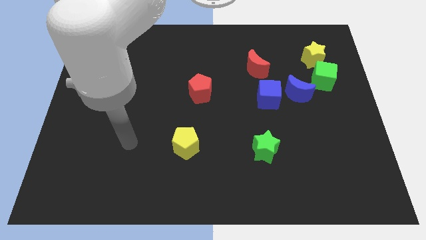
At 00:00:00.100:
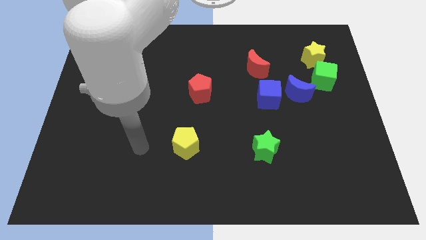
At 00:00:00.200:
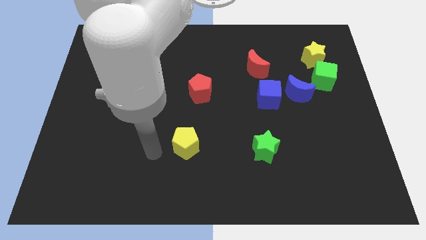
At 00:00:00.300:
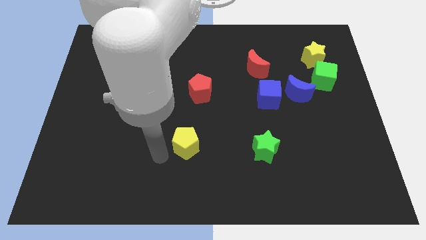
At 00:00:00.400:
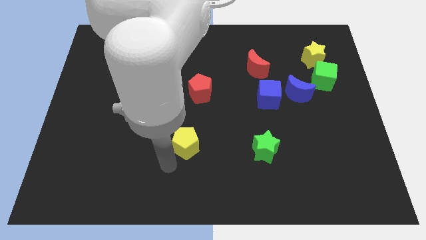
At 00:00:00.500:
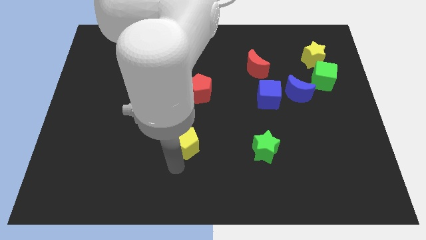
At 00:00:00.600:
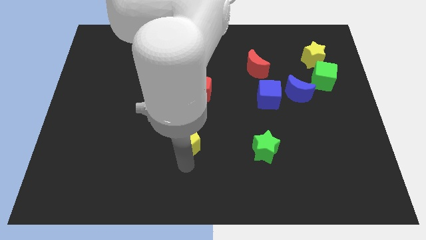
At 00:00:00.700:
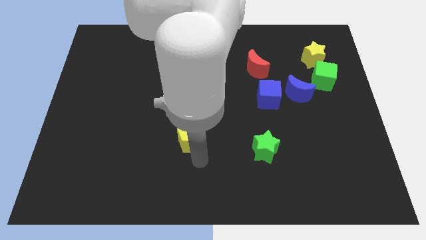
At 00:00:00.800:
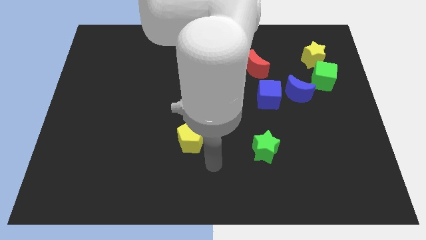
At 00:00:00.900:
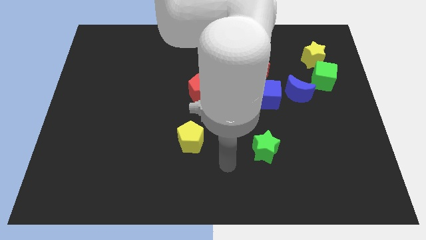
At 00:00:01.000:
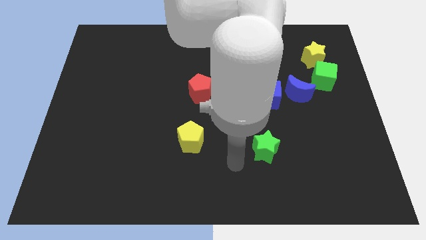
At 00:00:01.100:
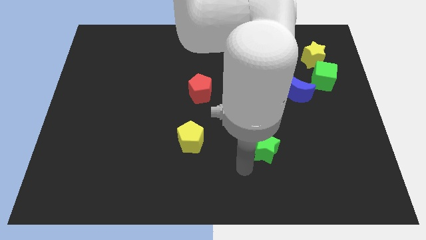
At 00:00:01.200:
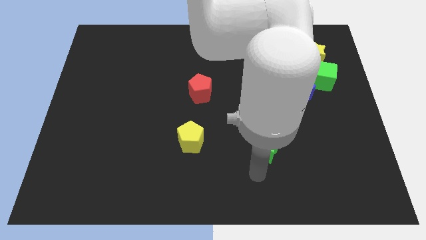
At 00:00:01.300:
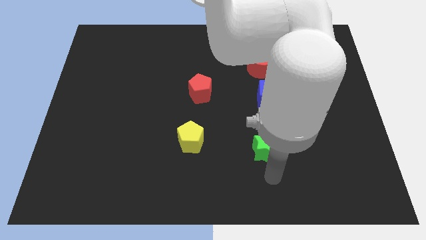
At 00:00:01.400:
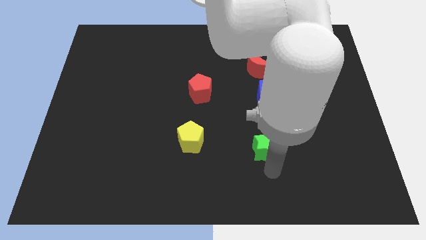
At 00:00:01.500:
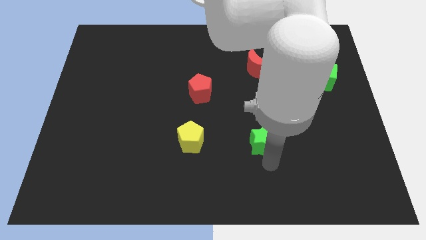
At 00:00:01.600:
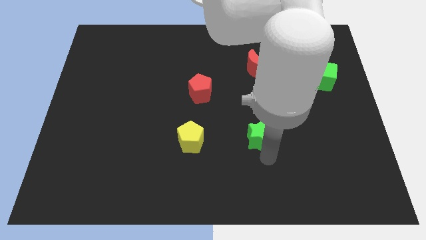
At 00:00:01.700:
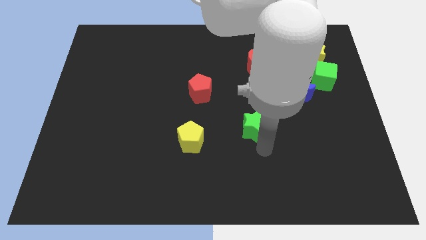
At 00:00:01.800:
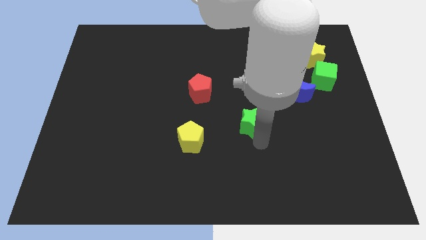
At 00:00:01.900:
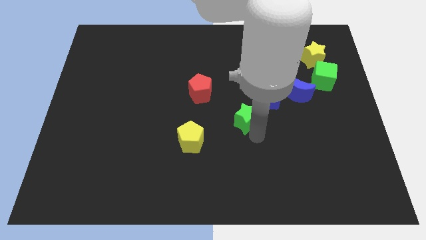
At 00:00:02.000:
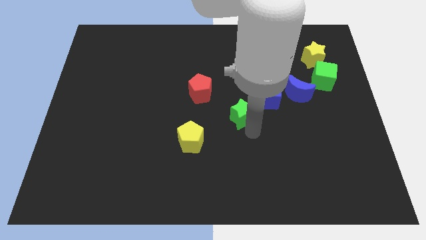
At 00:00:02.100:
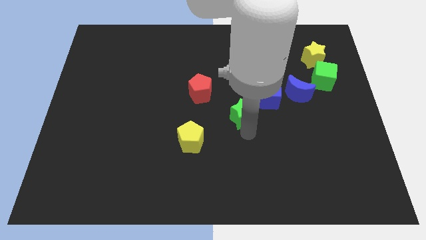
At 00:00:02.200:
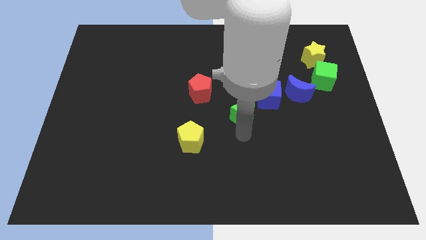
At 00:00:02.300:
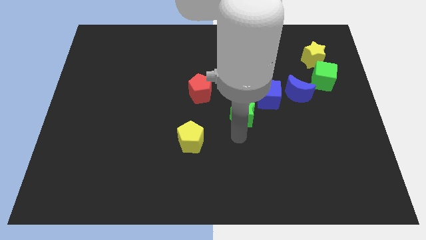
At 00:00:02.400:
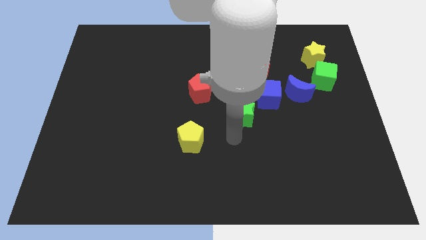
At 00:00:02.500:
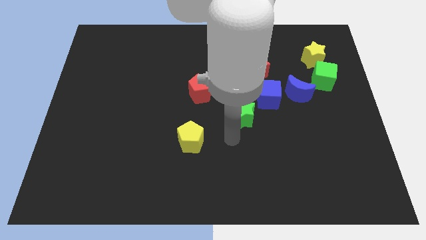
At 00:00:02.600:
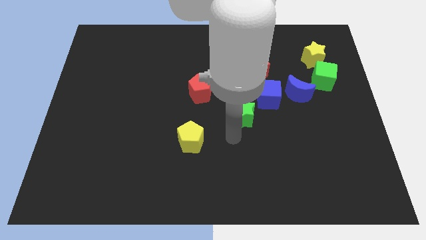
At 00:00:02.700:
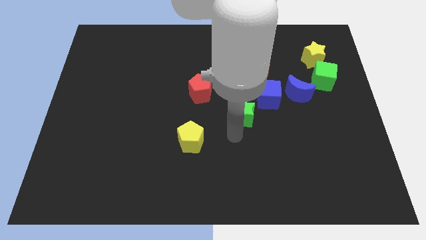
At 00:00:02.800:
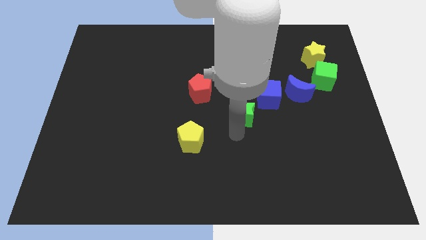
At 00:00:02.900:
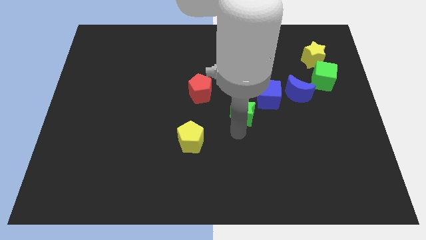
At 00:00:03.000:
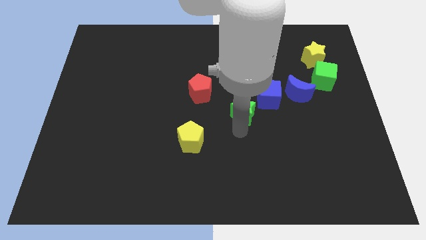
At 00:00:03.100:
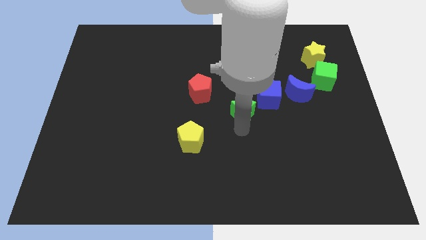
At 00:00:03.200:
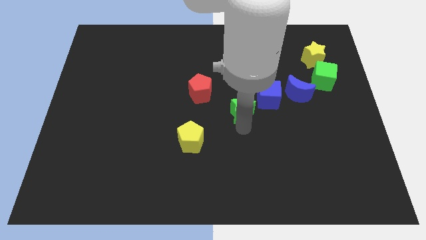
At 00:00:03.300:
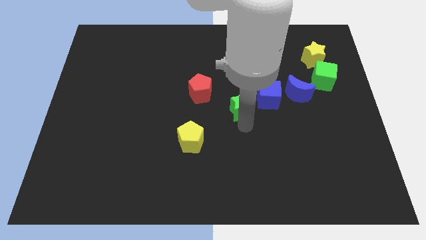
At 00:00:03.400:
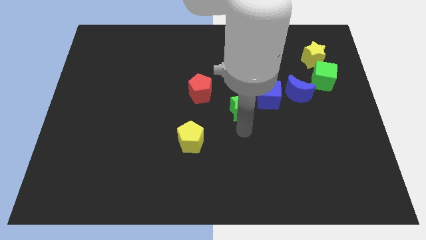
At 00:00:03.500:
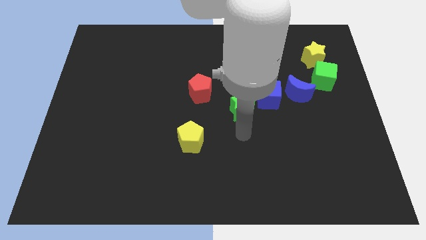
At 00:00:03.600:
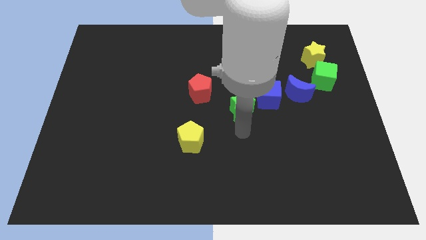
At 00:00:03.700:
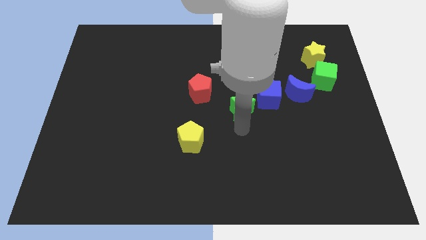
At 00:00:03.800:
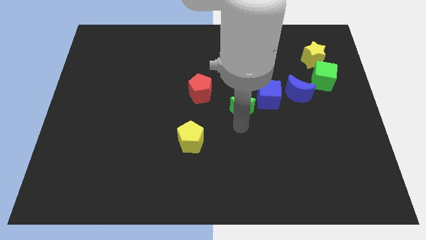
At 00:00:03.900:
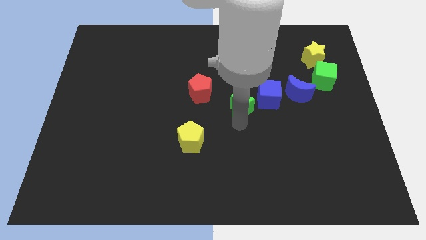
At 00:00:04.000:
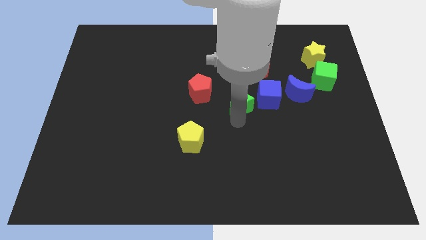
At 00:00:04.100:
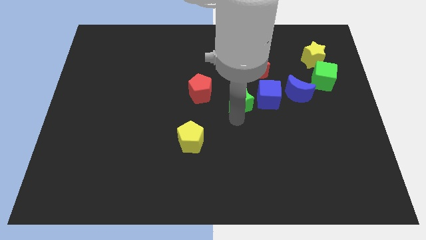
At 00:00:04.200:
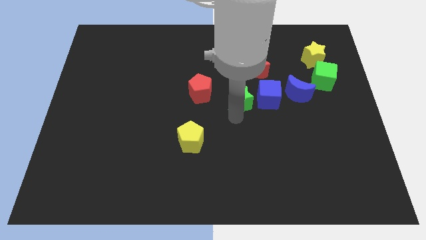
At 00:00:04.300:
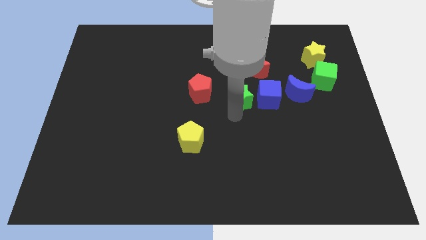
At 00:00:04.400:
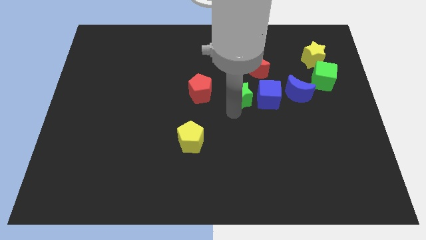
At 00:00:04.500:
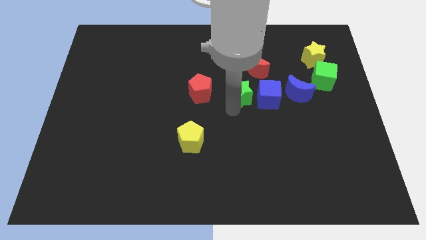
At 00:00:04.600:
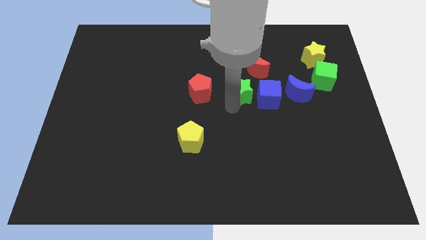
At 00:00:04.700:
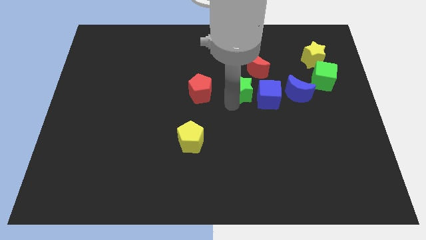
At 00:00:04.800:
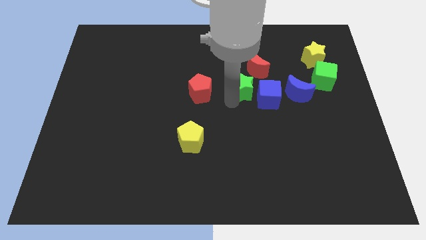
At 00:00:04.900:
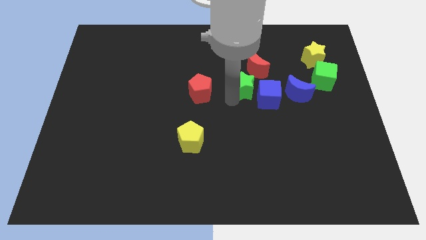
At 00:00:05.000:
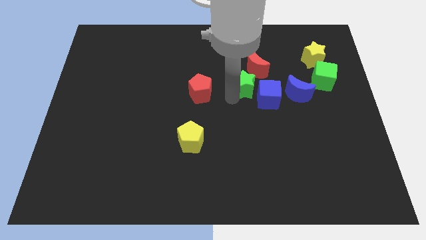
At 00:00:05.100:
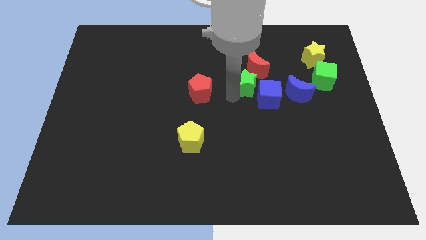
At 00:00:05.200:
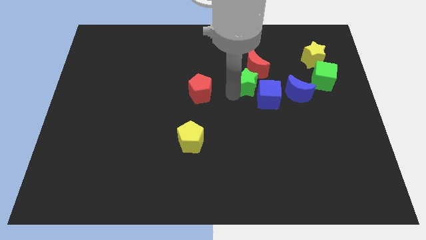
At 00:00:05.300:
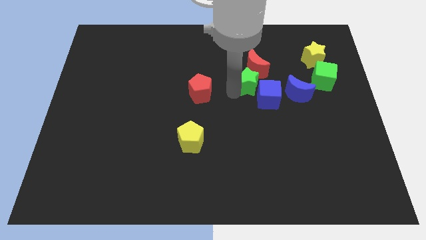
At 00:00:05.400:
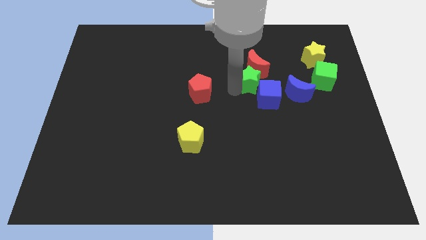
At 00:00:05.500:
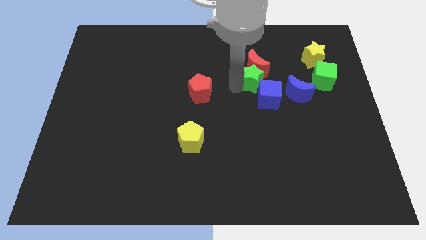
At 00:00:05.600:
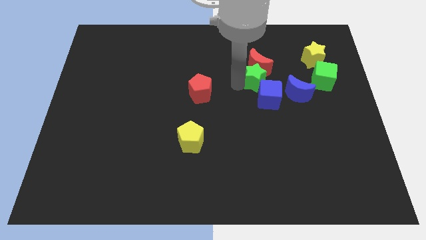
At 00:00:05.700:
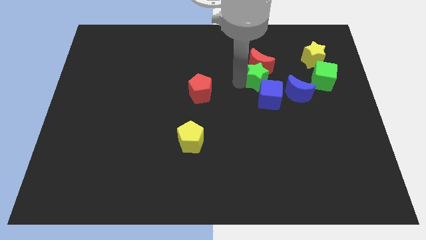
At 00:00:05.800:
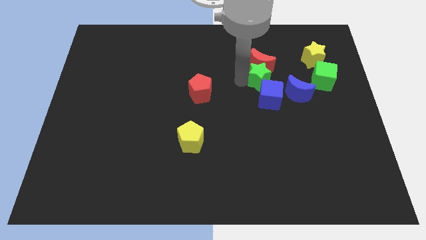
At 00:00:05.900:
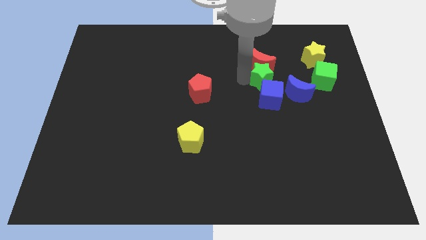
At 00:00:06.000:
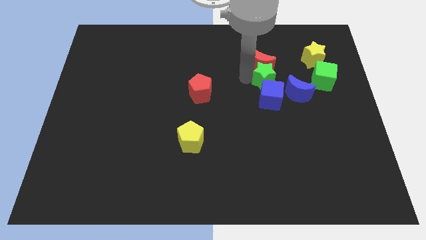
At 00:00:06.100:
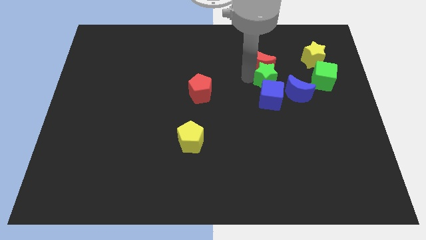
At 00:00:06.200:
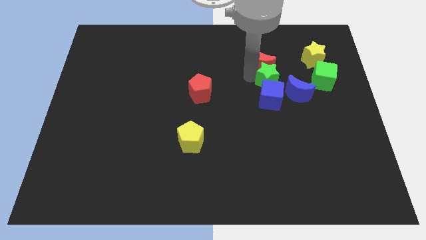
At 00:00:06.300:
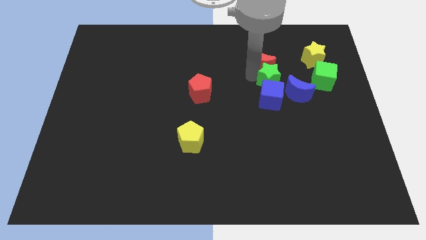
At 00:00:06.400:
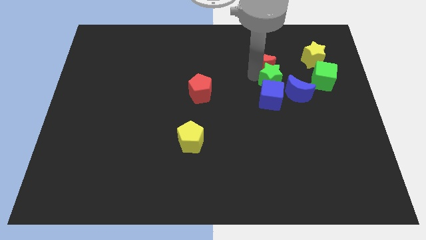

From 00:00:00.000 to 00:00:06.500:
slightly move the green star up and then to the right

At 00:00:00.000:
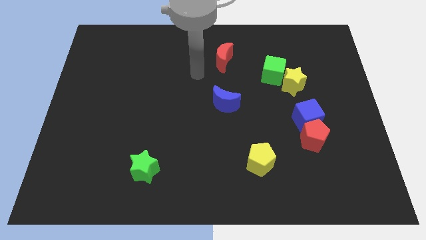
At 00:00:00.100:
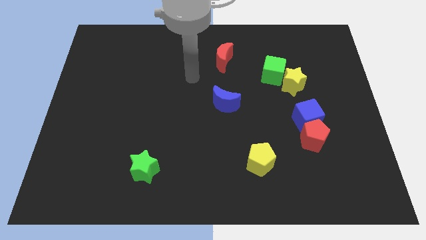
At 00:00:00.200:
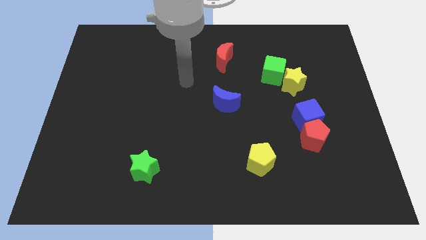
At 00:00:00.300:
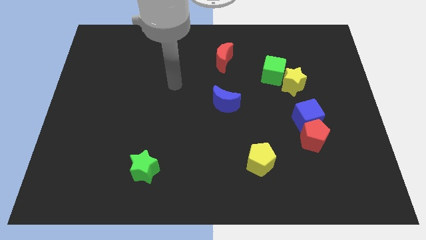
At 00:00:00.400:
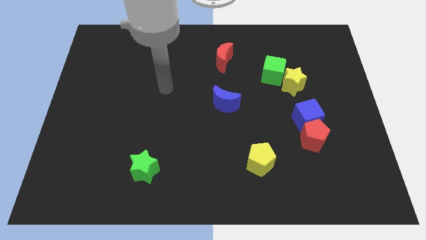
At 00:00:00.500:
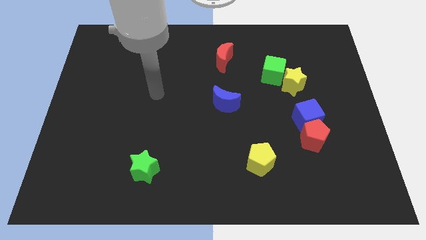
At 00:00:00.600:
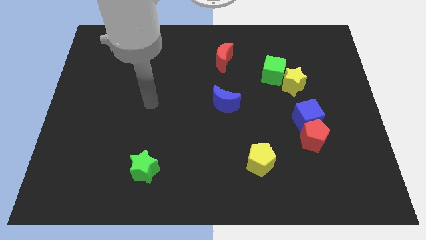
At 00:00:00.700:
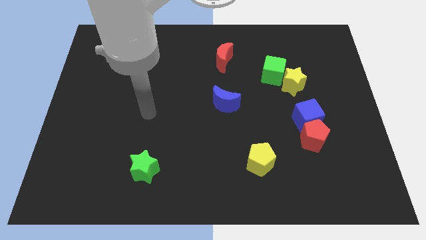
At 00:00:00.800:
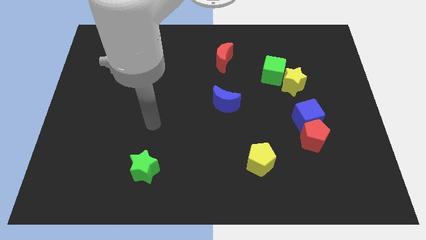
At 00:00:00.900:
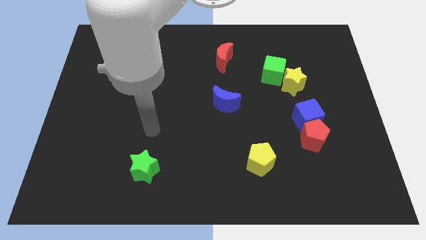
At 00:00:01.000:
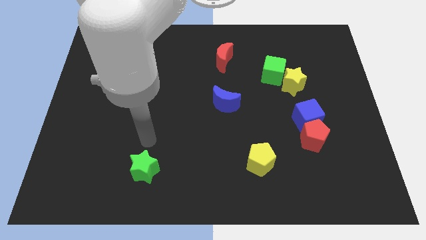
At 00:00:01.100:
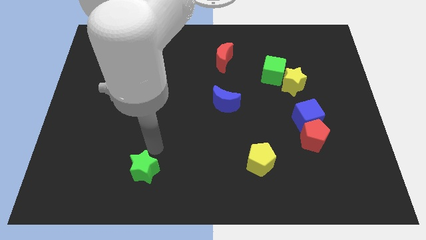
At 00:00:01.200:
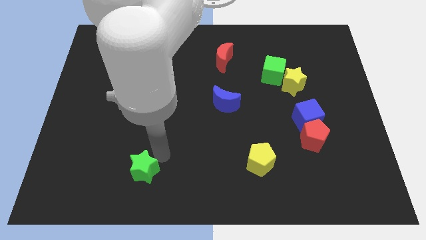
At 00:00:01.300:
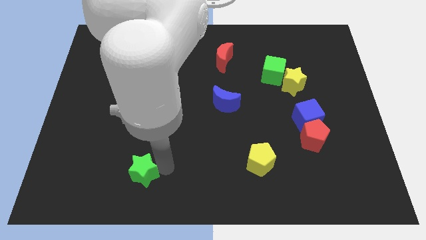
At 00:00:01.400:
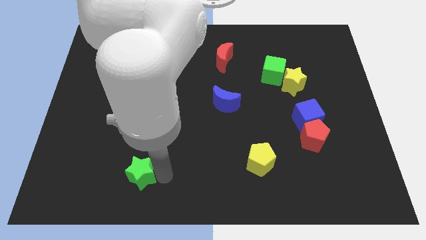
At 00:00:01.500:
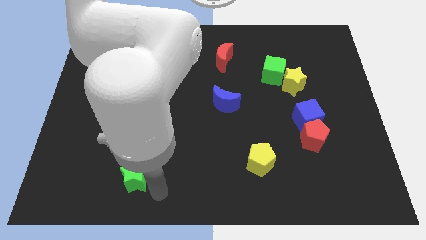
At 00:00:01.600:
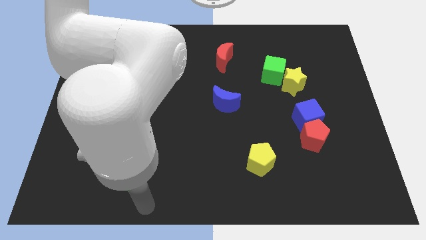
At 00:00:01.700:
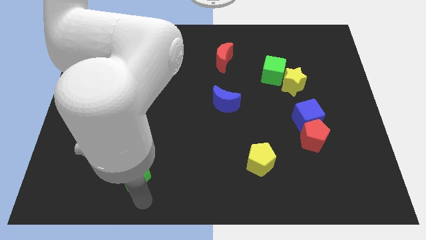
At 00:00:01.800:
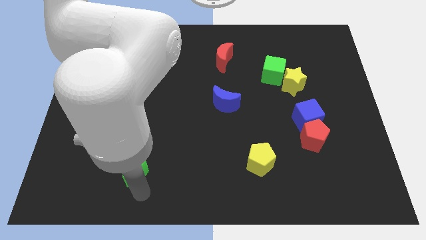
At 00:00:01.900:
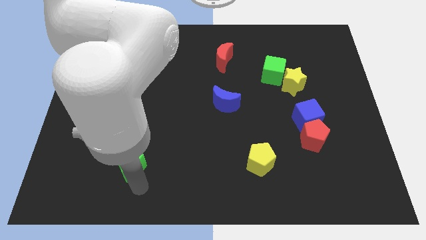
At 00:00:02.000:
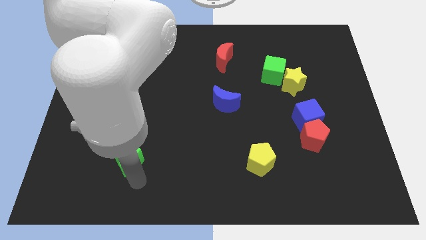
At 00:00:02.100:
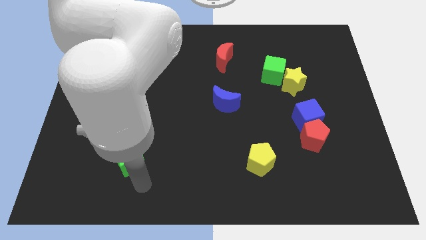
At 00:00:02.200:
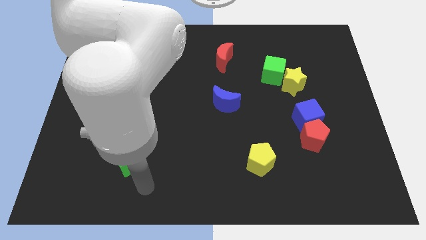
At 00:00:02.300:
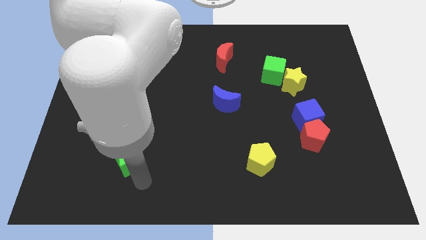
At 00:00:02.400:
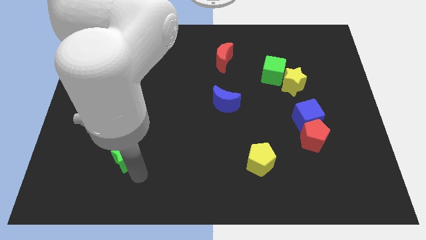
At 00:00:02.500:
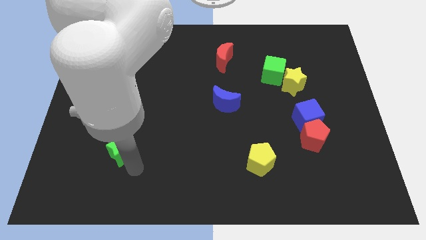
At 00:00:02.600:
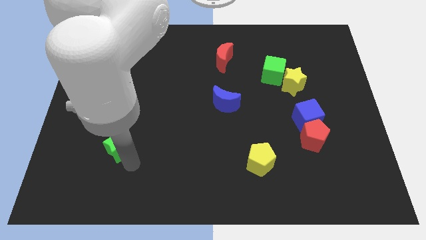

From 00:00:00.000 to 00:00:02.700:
push the green star up and left diagonally a bit
